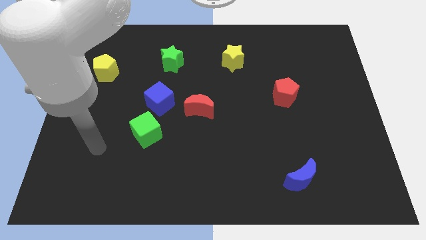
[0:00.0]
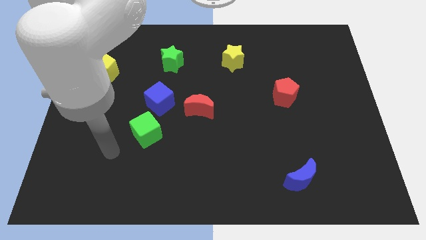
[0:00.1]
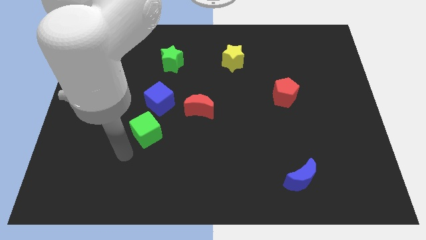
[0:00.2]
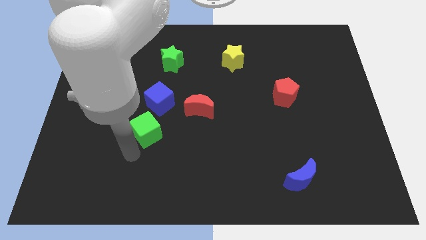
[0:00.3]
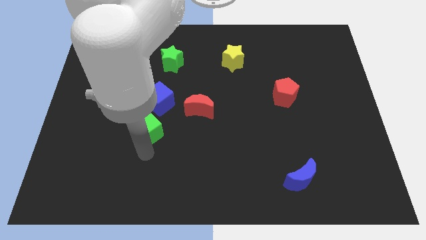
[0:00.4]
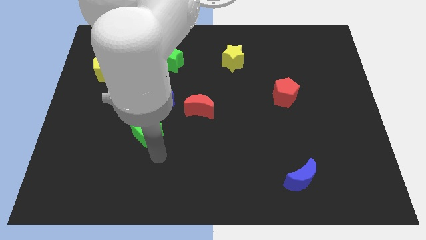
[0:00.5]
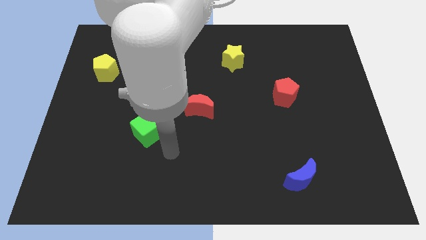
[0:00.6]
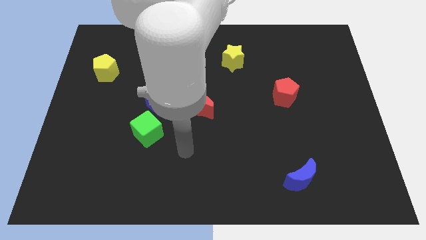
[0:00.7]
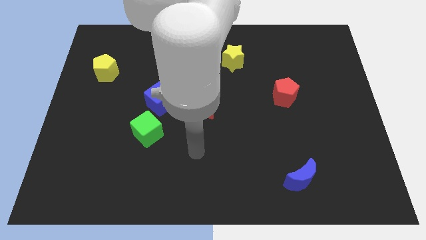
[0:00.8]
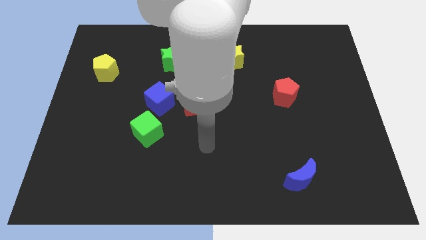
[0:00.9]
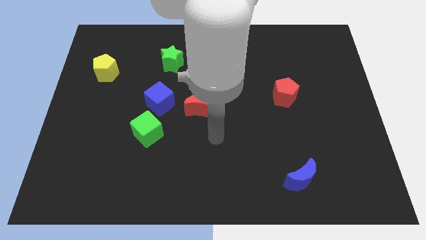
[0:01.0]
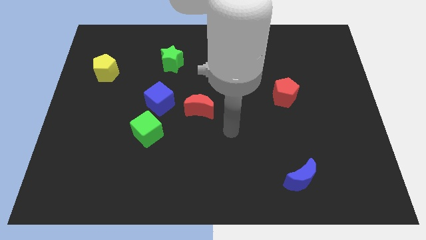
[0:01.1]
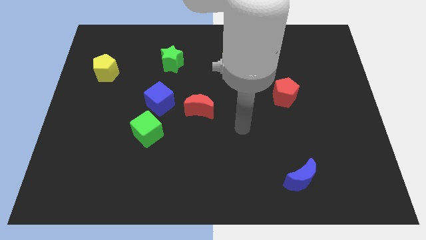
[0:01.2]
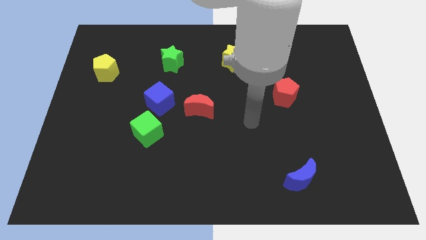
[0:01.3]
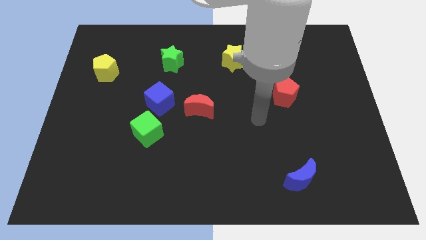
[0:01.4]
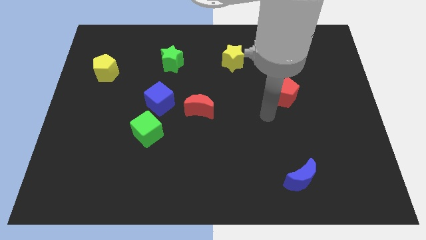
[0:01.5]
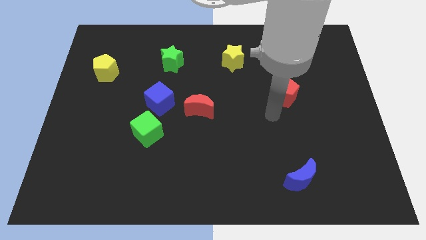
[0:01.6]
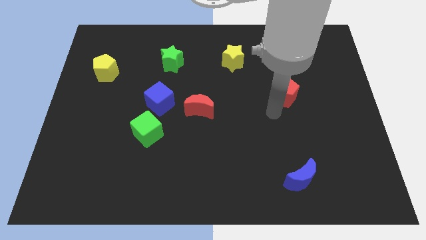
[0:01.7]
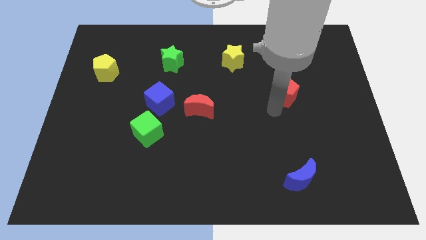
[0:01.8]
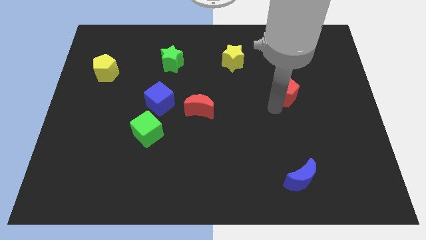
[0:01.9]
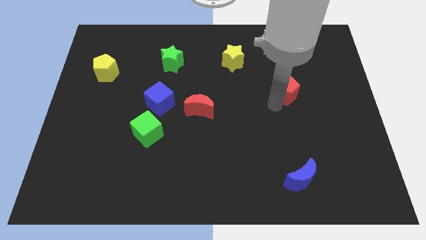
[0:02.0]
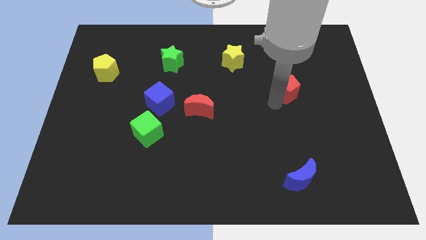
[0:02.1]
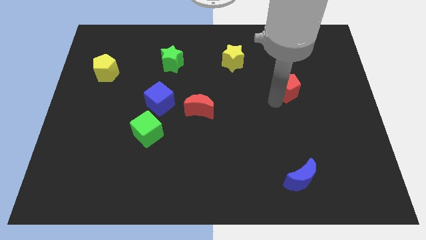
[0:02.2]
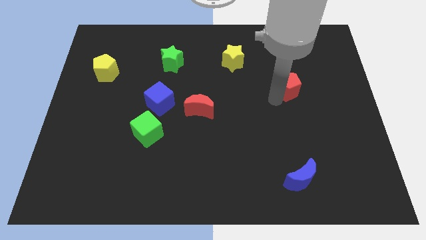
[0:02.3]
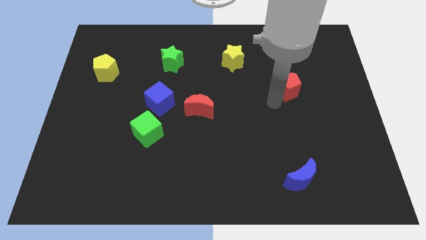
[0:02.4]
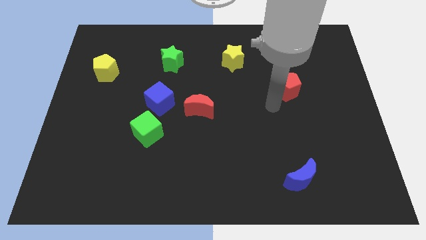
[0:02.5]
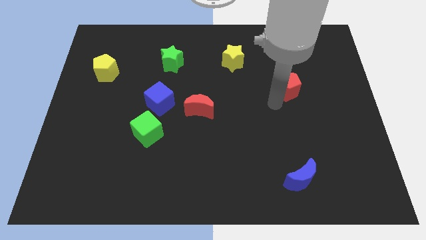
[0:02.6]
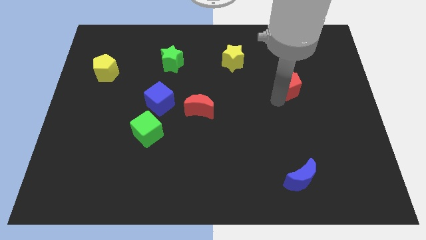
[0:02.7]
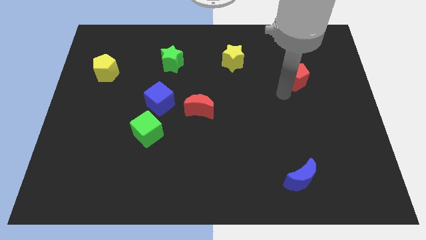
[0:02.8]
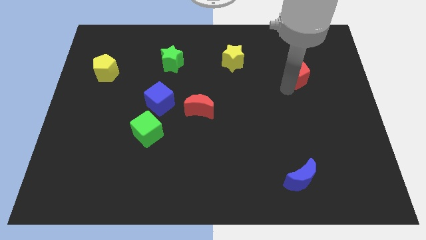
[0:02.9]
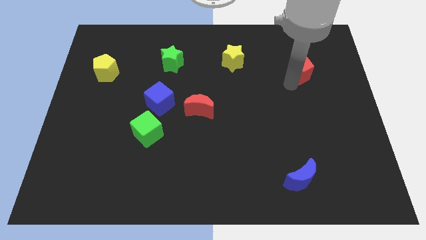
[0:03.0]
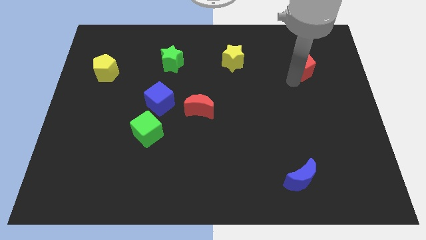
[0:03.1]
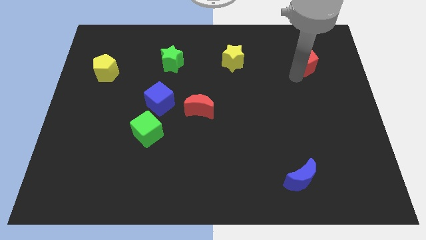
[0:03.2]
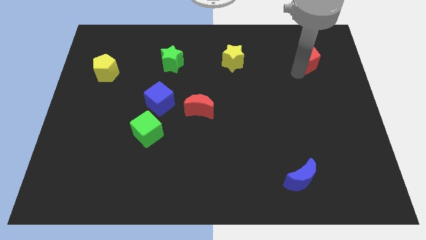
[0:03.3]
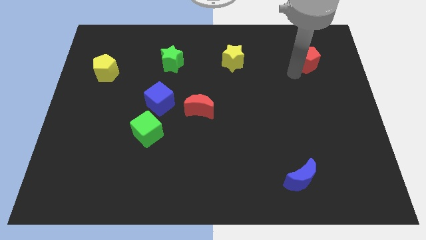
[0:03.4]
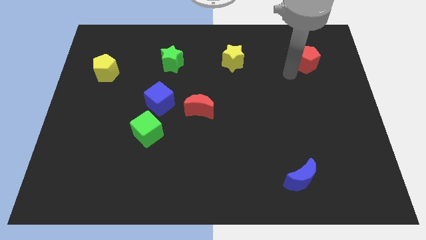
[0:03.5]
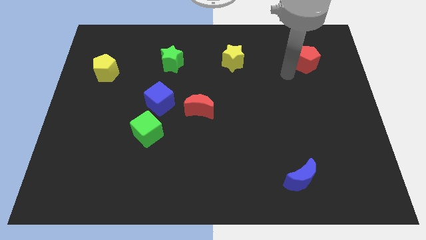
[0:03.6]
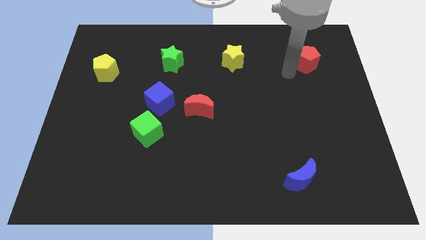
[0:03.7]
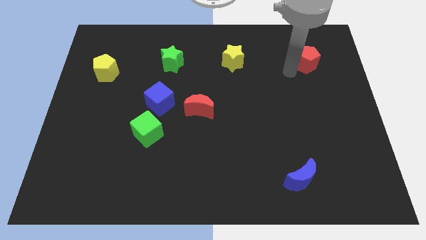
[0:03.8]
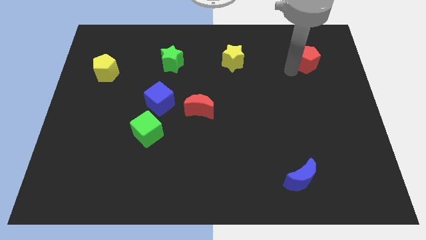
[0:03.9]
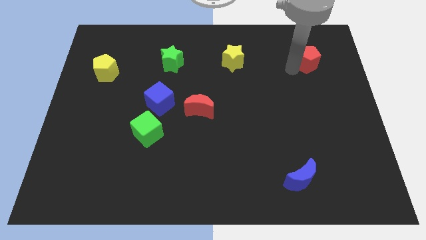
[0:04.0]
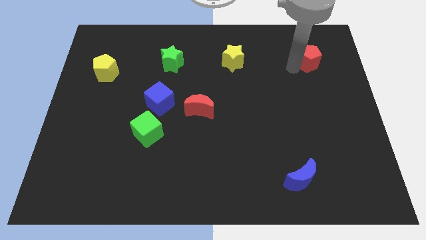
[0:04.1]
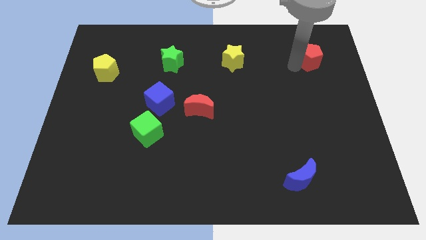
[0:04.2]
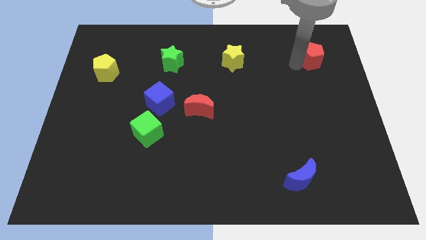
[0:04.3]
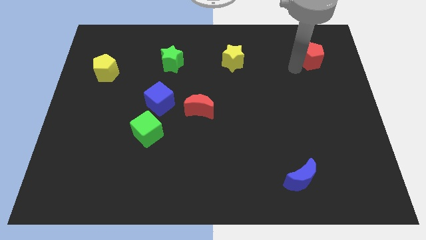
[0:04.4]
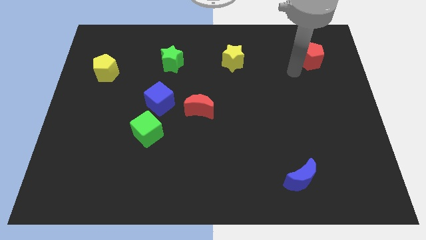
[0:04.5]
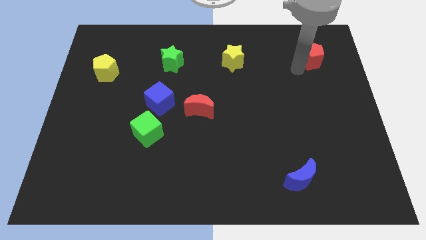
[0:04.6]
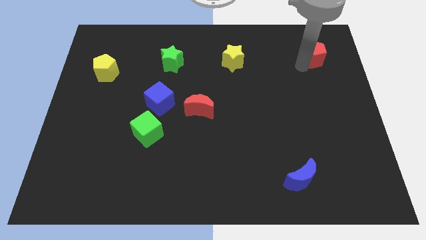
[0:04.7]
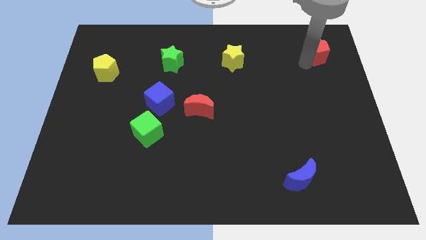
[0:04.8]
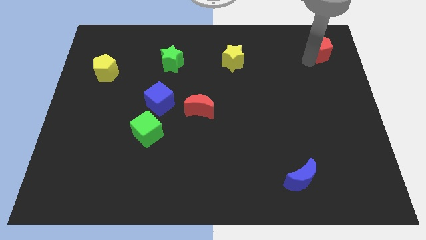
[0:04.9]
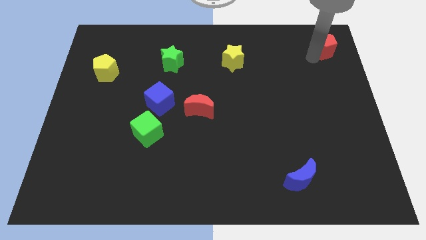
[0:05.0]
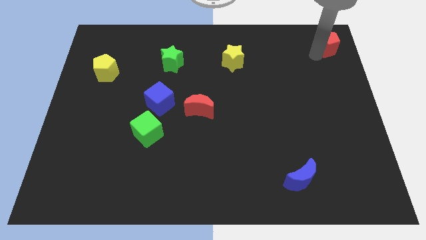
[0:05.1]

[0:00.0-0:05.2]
move the red pentagon to the top right of the board

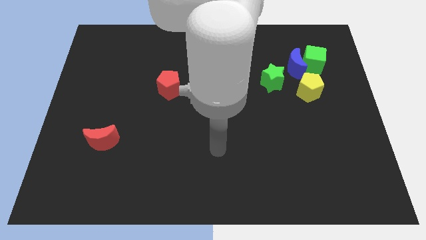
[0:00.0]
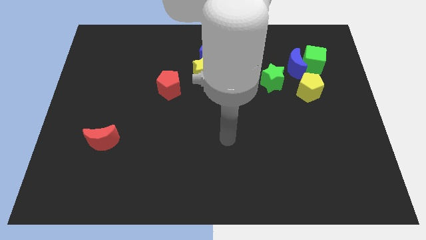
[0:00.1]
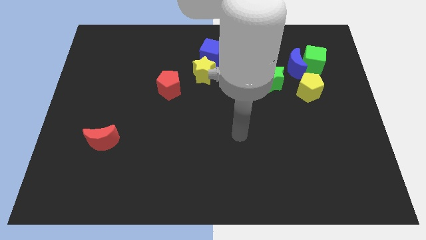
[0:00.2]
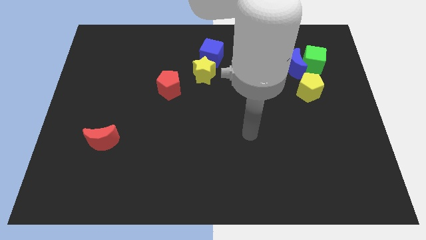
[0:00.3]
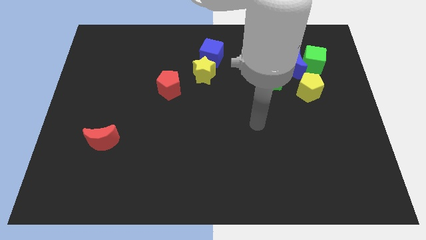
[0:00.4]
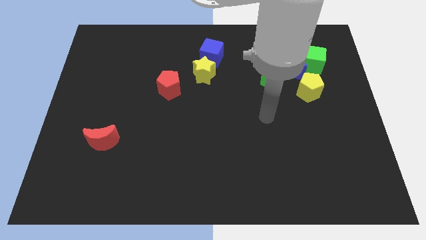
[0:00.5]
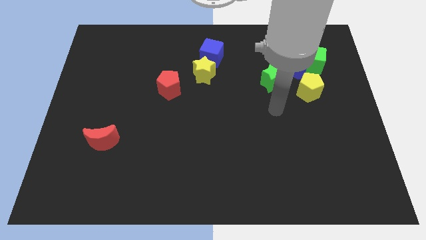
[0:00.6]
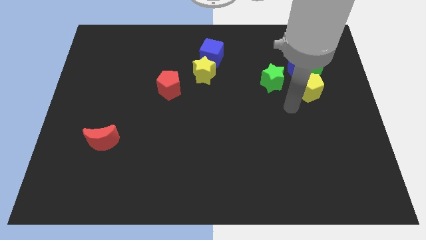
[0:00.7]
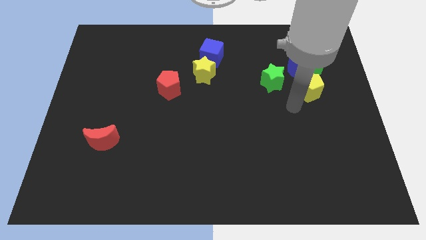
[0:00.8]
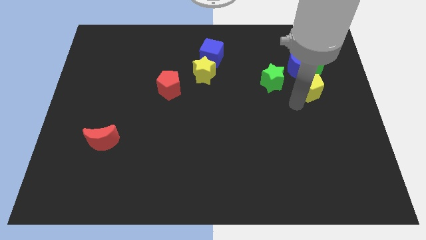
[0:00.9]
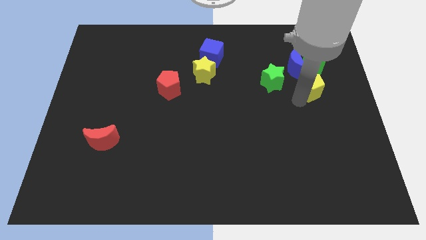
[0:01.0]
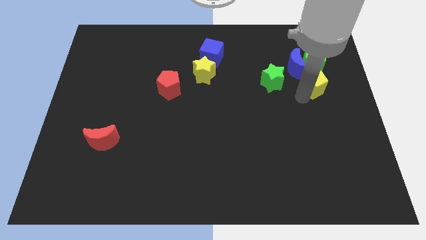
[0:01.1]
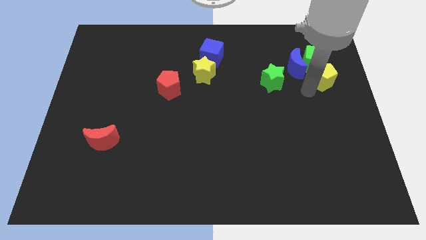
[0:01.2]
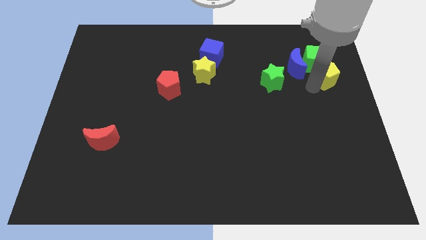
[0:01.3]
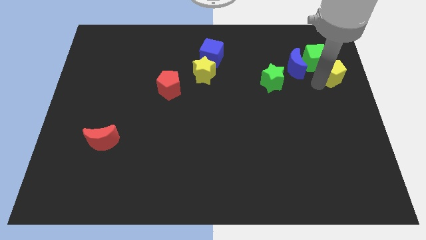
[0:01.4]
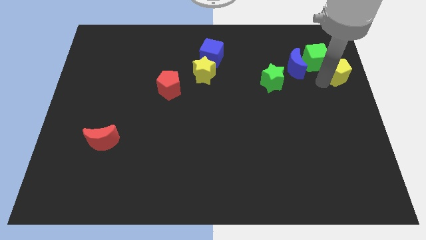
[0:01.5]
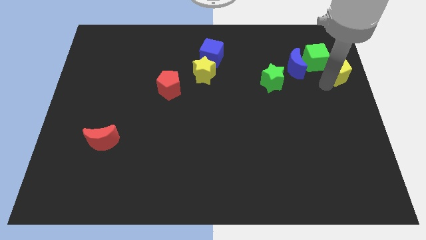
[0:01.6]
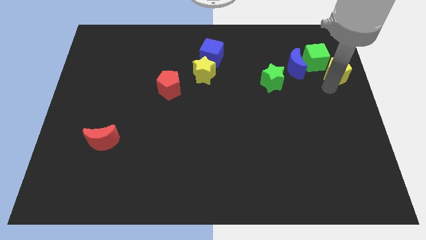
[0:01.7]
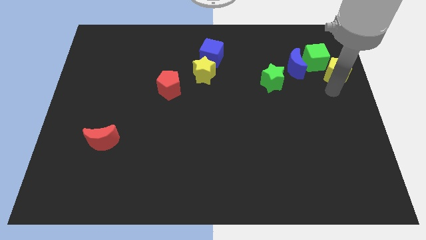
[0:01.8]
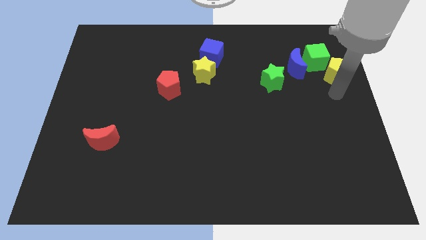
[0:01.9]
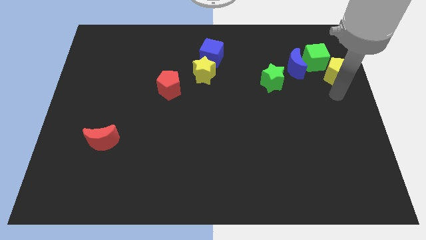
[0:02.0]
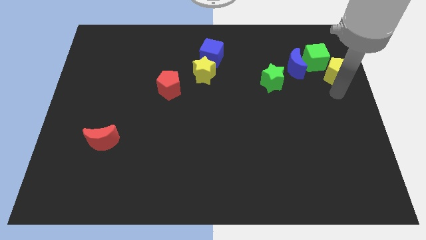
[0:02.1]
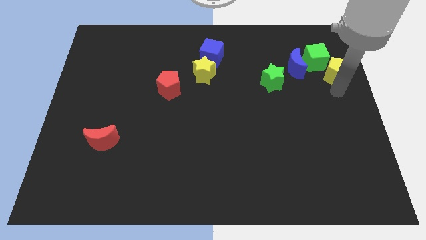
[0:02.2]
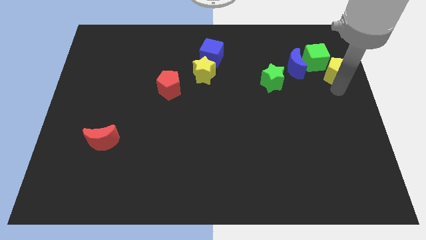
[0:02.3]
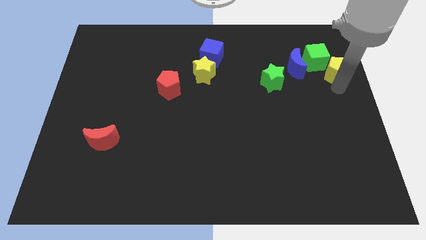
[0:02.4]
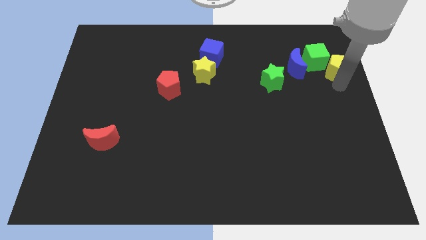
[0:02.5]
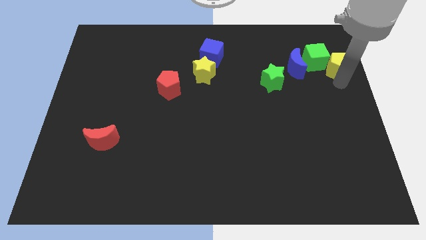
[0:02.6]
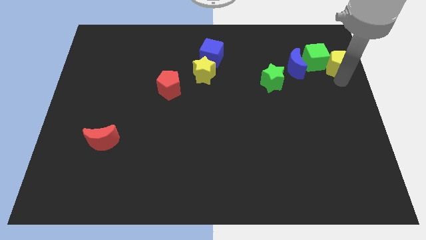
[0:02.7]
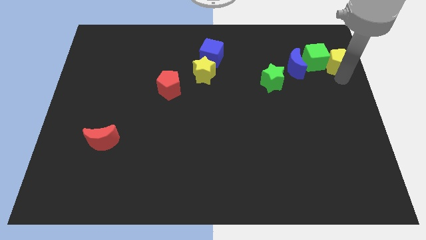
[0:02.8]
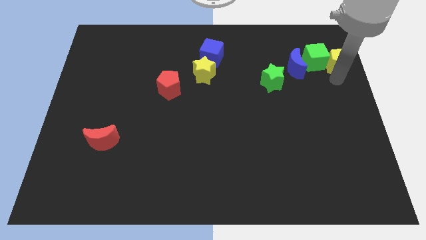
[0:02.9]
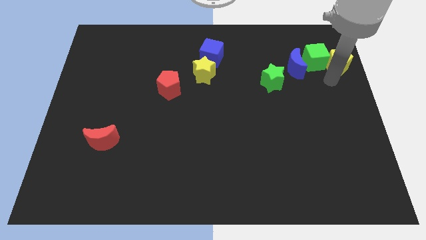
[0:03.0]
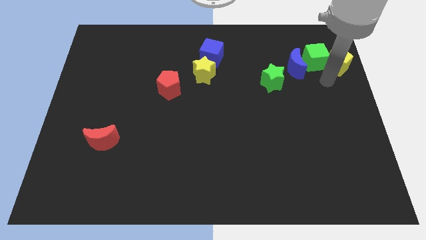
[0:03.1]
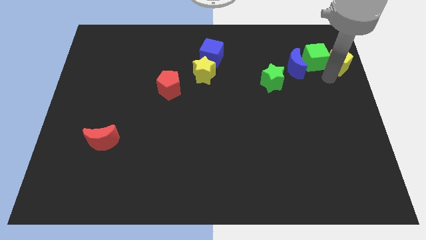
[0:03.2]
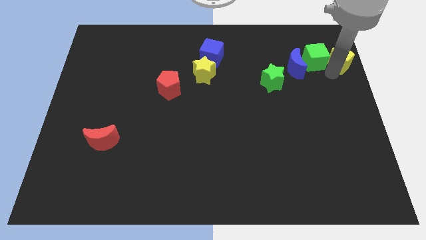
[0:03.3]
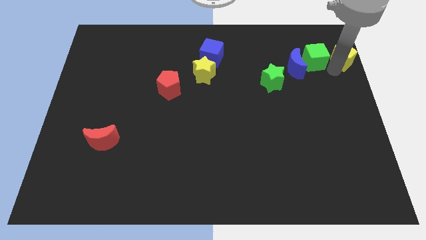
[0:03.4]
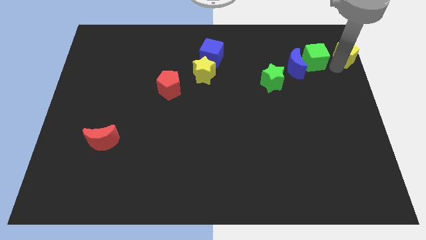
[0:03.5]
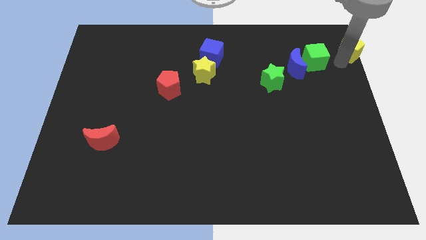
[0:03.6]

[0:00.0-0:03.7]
put the yellow pentagon to the upper right corner
